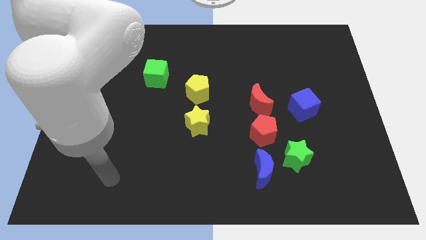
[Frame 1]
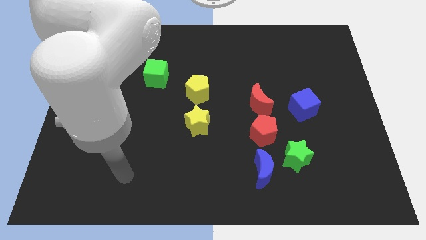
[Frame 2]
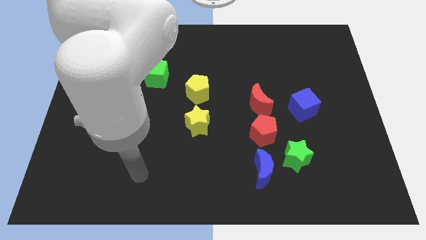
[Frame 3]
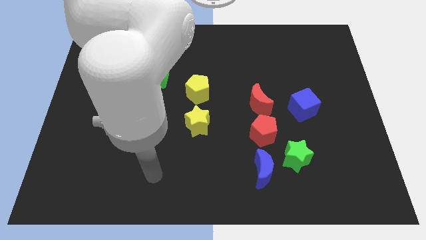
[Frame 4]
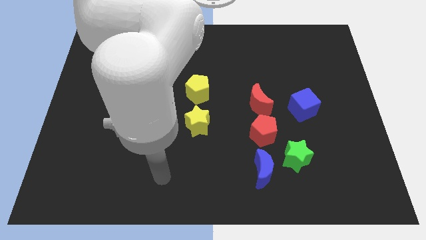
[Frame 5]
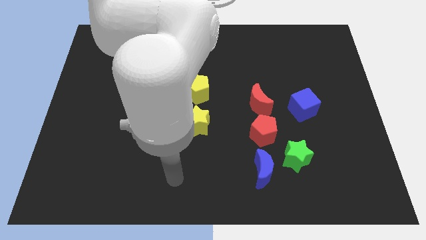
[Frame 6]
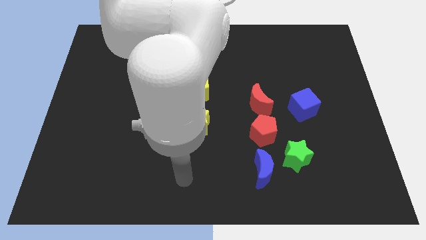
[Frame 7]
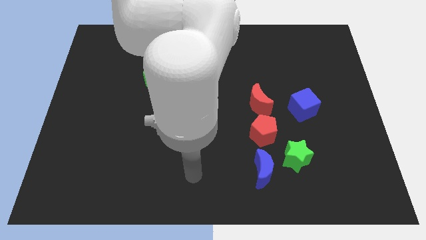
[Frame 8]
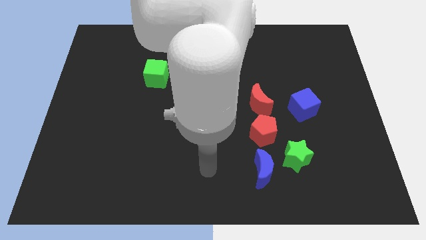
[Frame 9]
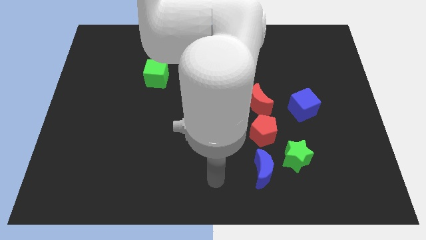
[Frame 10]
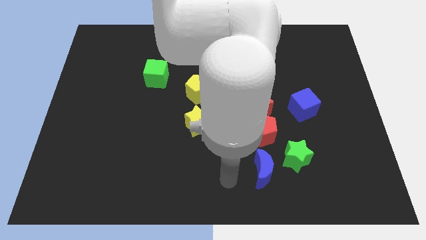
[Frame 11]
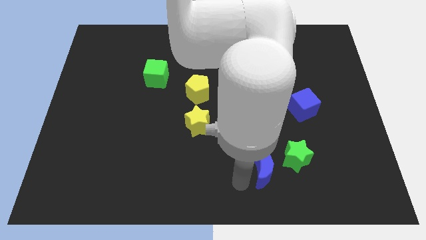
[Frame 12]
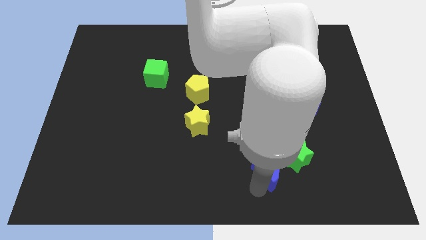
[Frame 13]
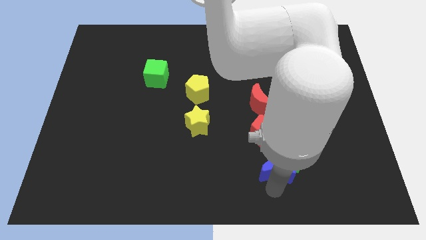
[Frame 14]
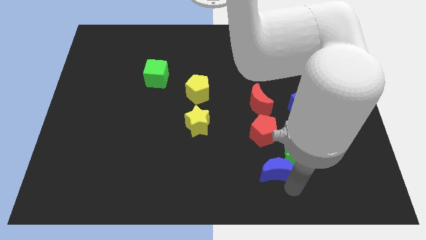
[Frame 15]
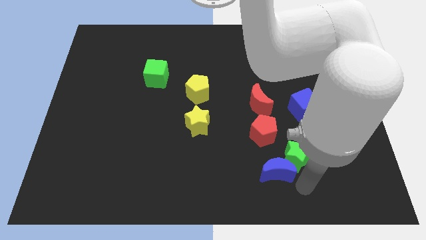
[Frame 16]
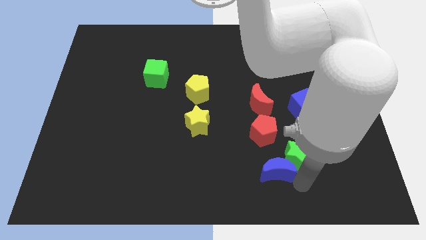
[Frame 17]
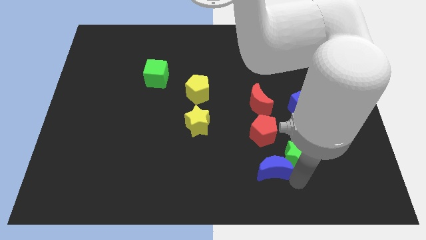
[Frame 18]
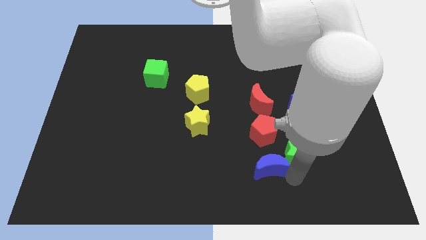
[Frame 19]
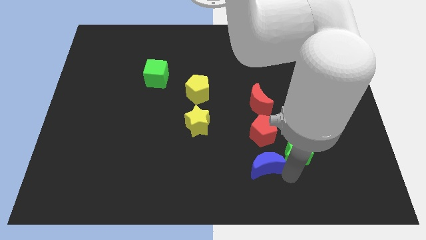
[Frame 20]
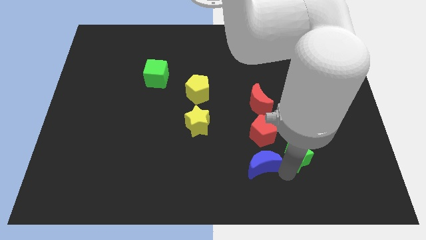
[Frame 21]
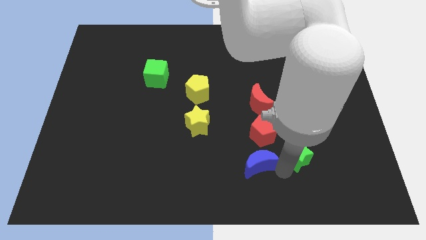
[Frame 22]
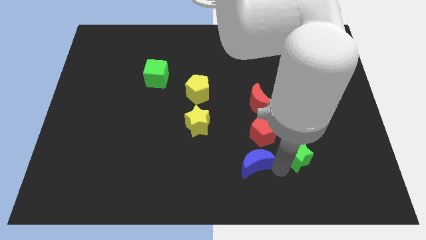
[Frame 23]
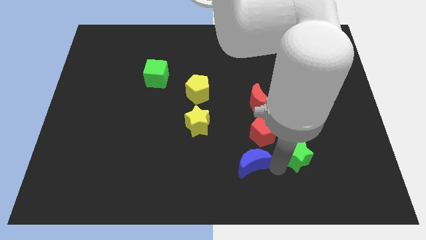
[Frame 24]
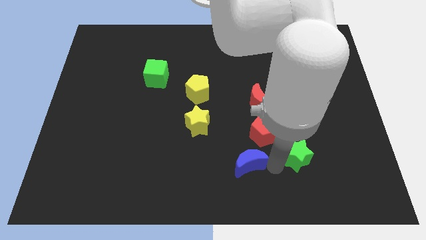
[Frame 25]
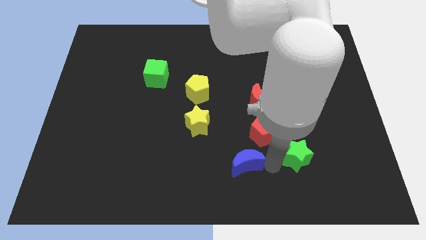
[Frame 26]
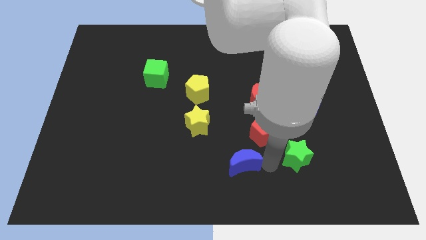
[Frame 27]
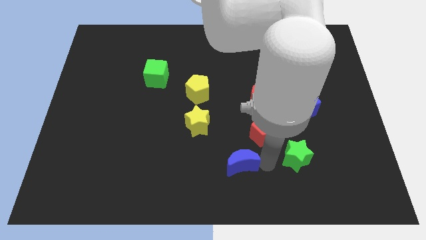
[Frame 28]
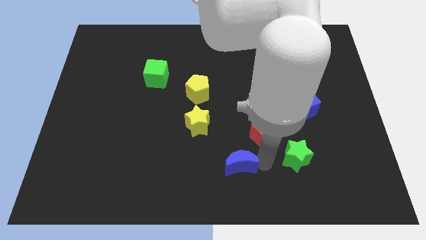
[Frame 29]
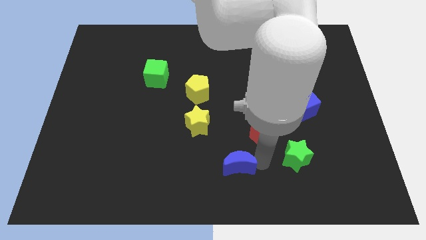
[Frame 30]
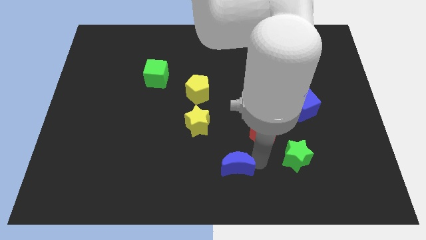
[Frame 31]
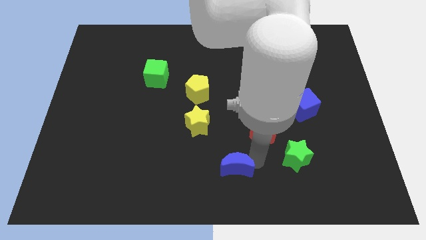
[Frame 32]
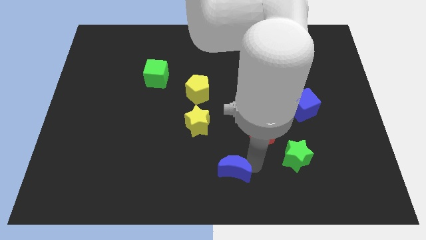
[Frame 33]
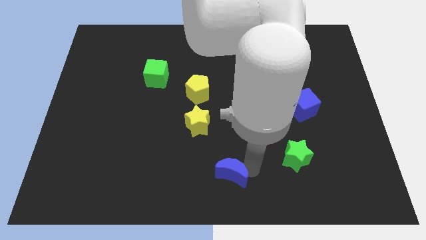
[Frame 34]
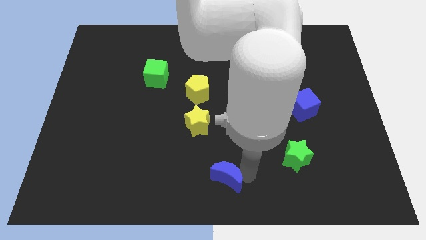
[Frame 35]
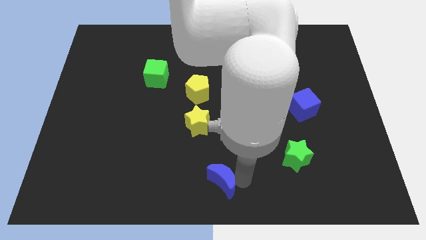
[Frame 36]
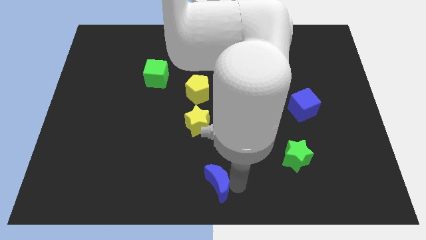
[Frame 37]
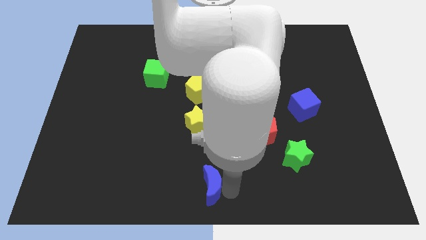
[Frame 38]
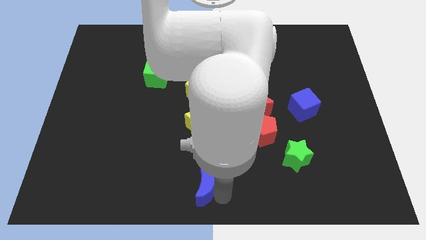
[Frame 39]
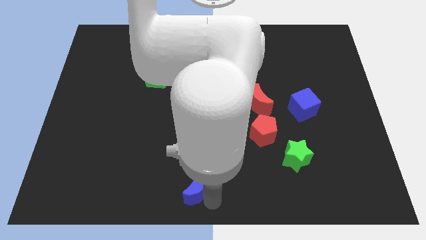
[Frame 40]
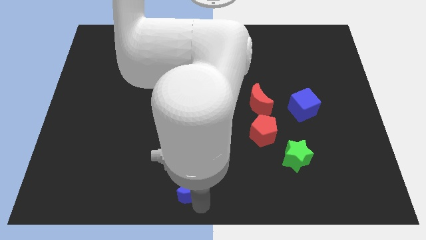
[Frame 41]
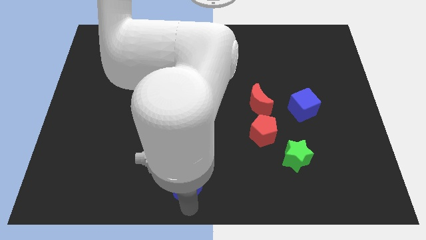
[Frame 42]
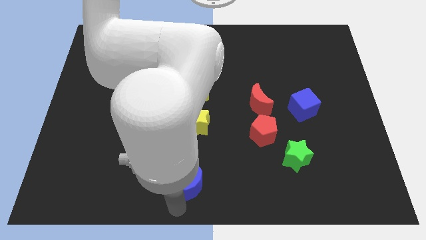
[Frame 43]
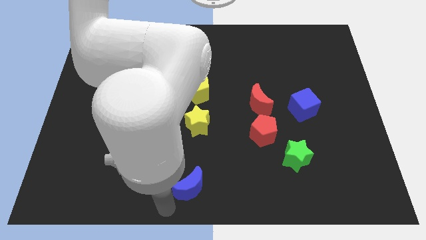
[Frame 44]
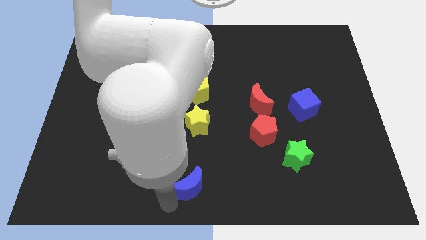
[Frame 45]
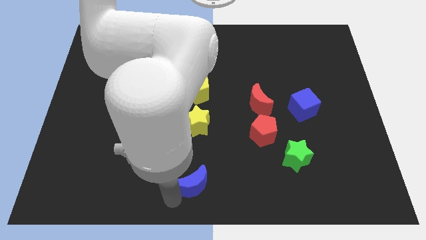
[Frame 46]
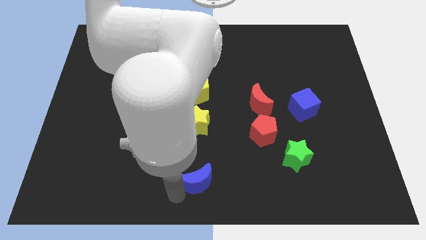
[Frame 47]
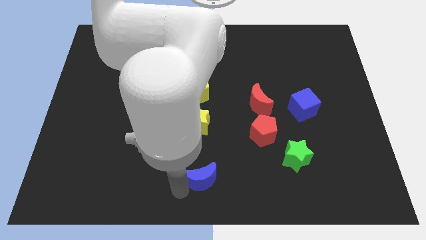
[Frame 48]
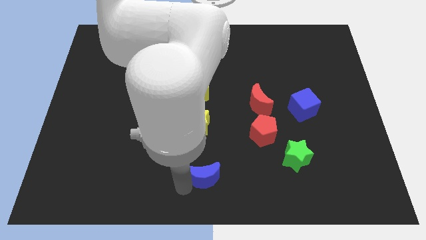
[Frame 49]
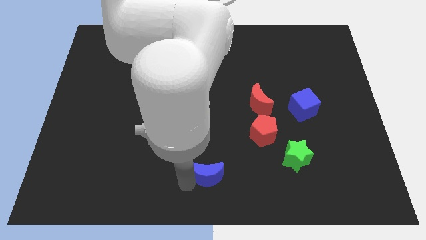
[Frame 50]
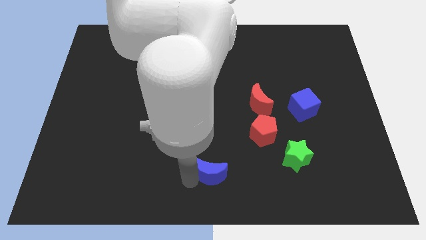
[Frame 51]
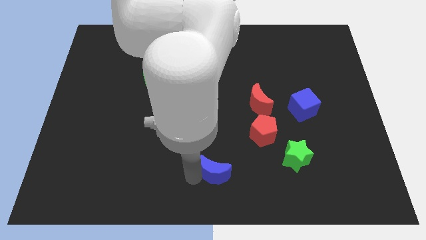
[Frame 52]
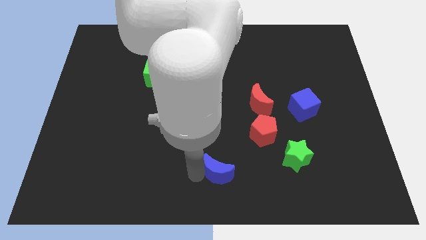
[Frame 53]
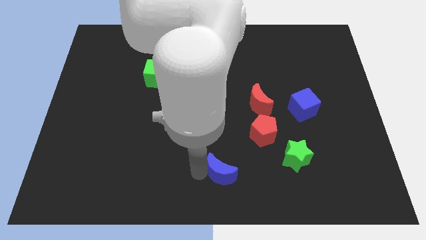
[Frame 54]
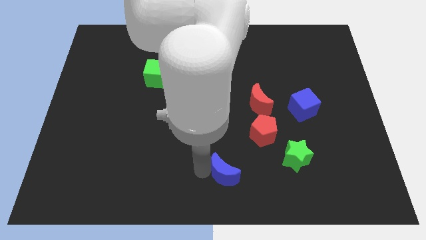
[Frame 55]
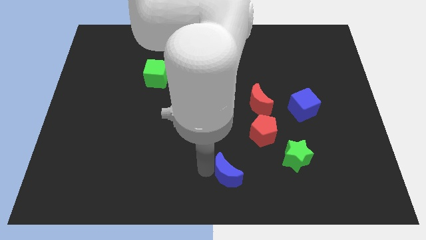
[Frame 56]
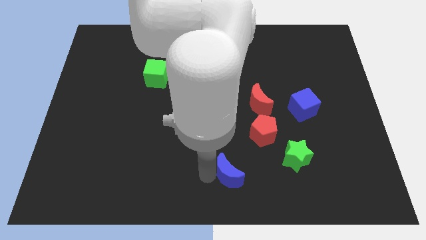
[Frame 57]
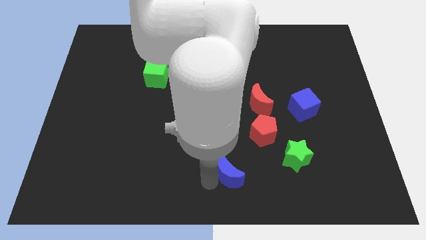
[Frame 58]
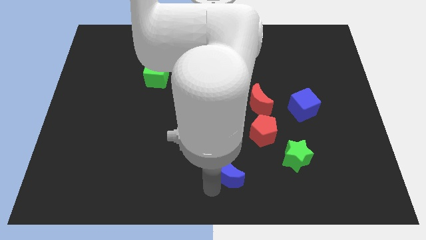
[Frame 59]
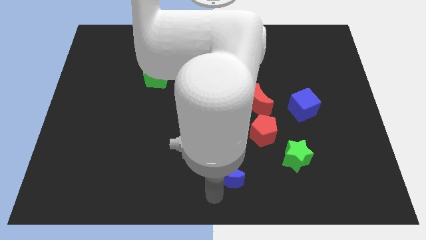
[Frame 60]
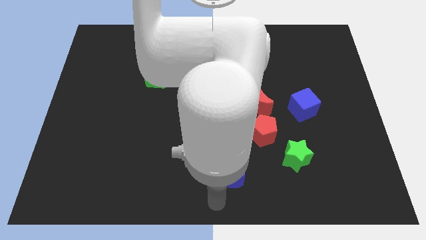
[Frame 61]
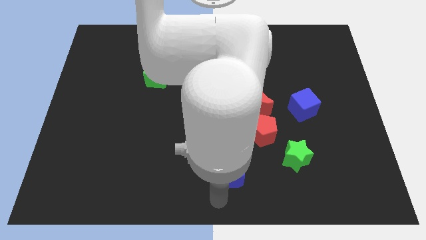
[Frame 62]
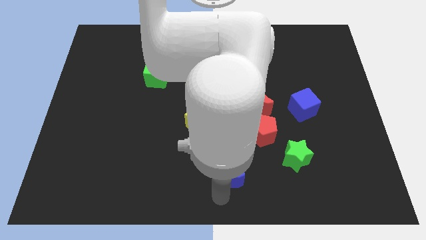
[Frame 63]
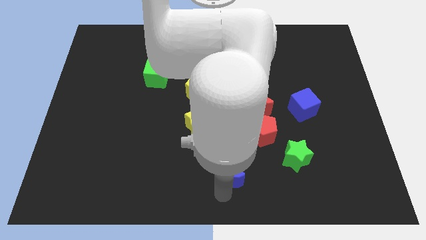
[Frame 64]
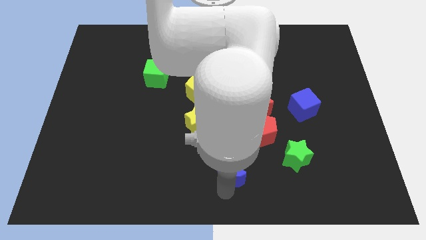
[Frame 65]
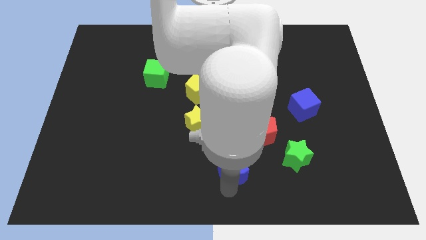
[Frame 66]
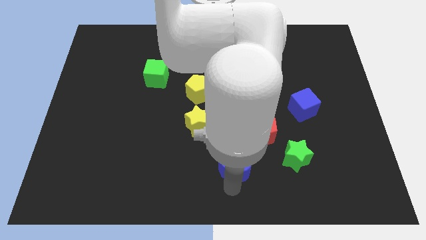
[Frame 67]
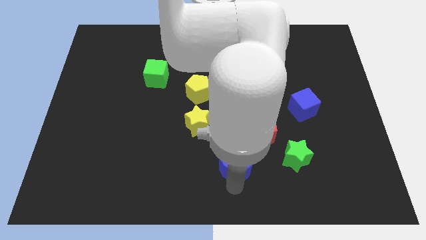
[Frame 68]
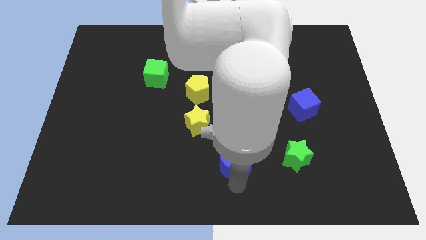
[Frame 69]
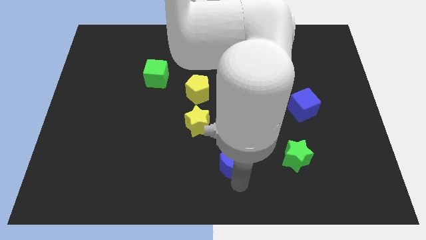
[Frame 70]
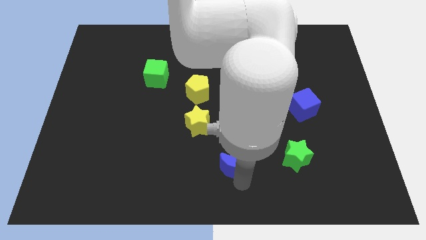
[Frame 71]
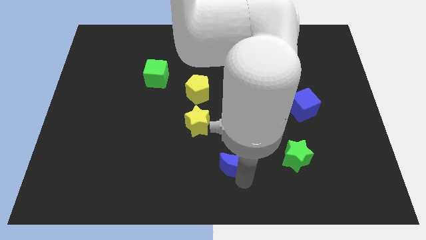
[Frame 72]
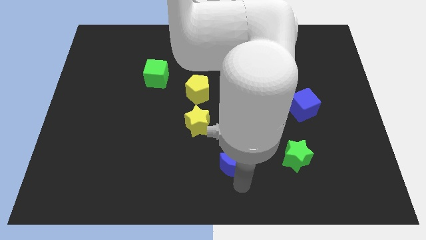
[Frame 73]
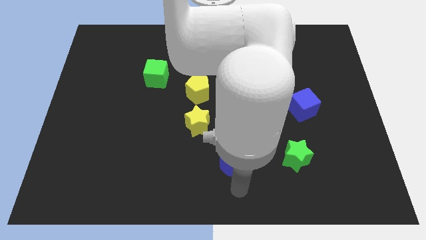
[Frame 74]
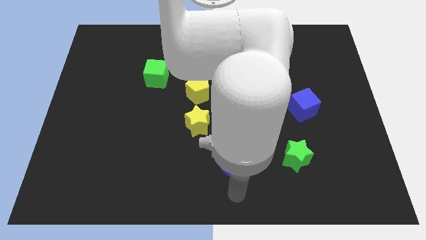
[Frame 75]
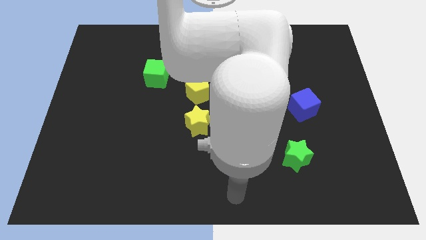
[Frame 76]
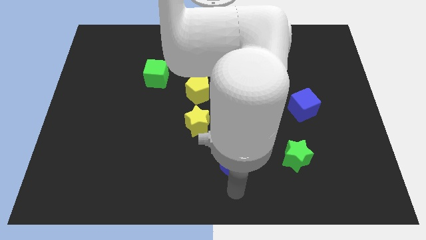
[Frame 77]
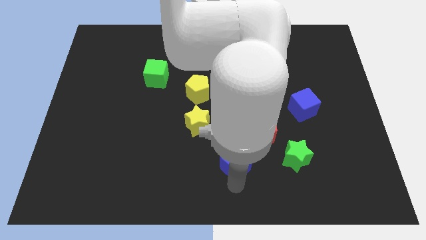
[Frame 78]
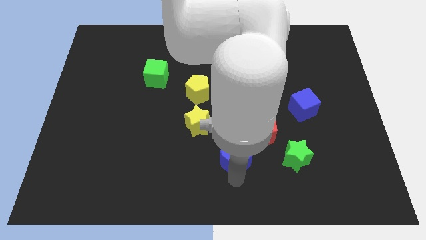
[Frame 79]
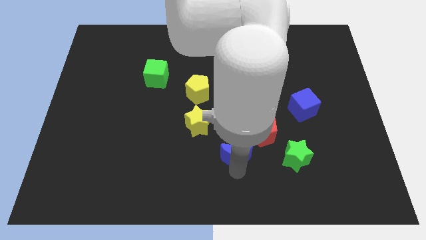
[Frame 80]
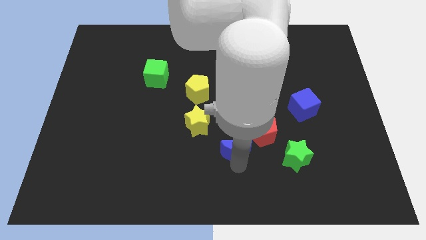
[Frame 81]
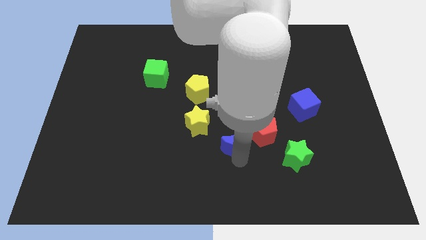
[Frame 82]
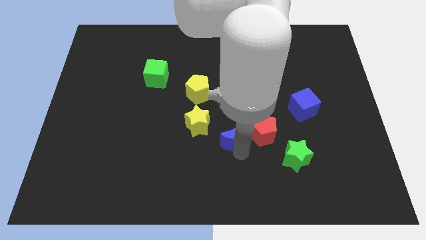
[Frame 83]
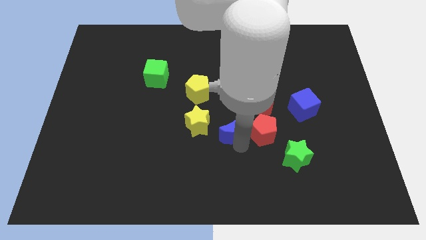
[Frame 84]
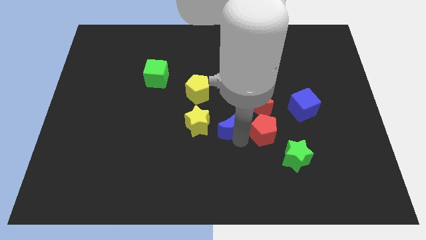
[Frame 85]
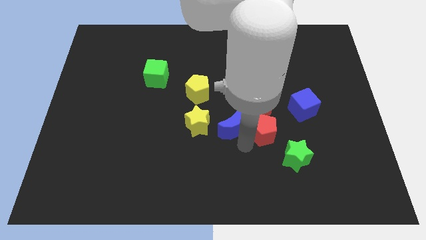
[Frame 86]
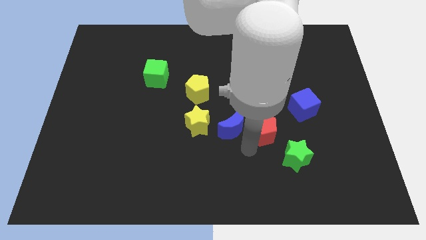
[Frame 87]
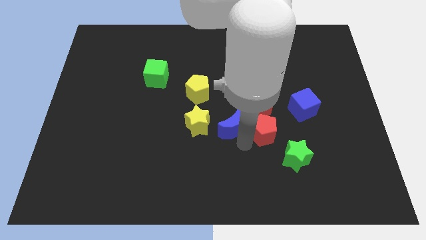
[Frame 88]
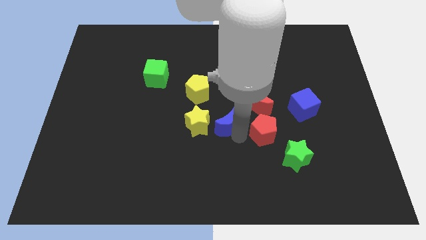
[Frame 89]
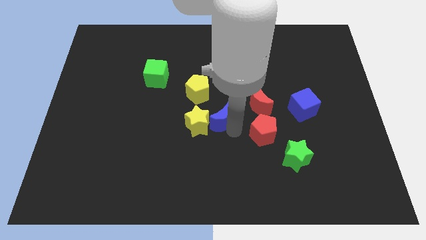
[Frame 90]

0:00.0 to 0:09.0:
move the blue moon just left of the red moon
